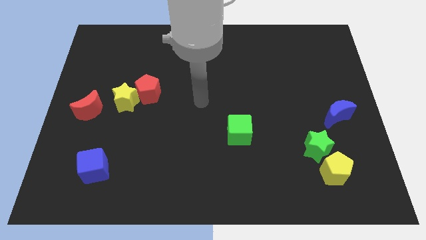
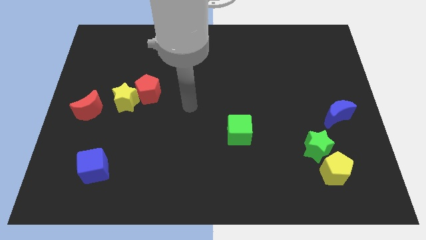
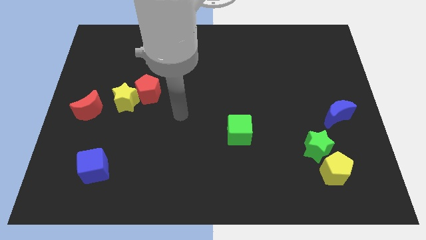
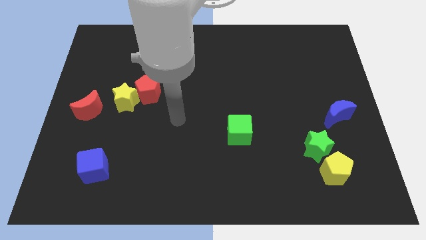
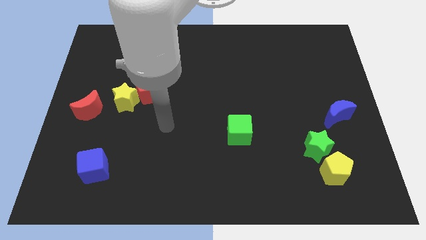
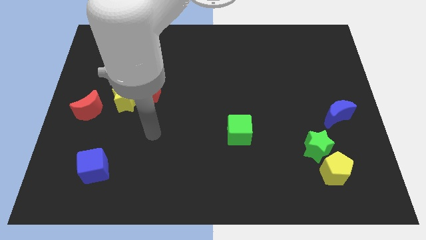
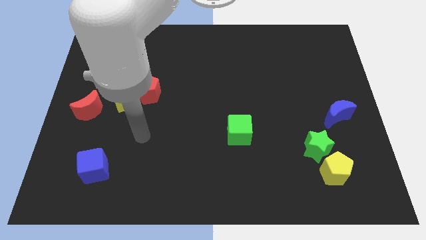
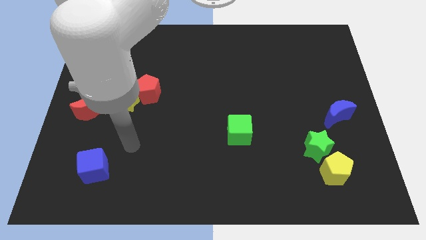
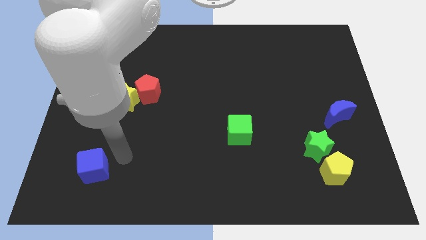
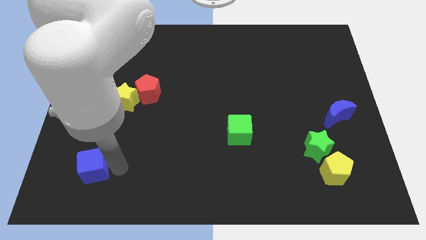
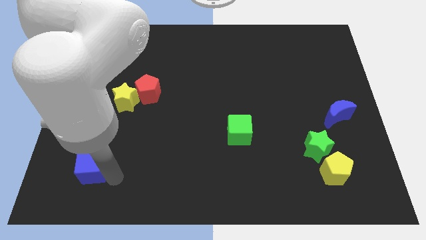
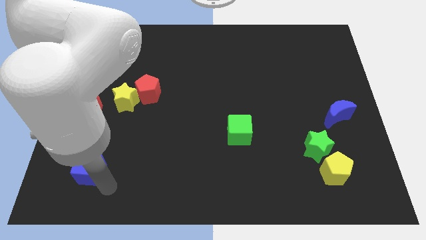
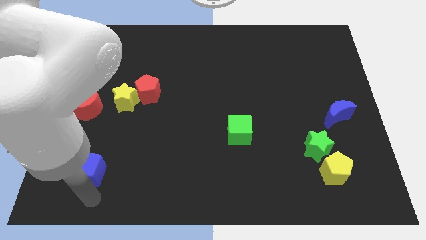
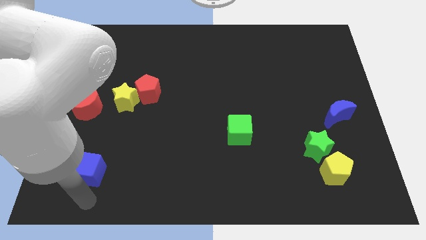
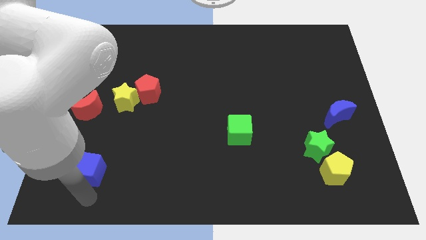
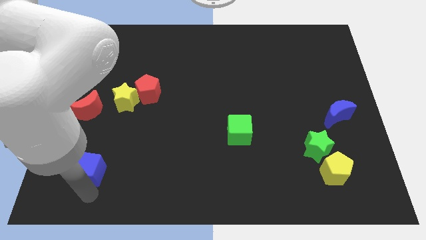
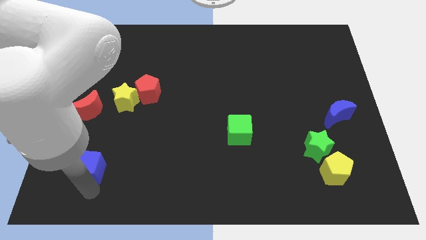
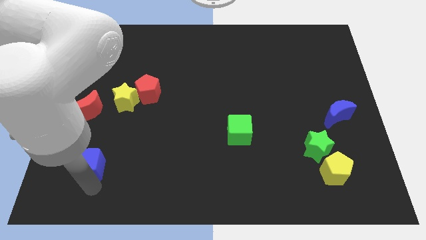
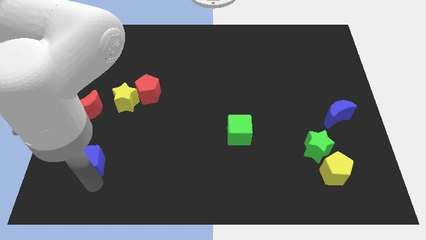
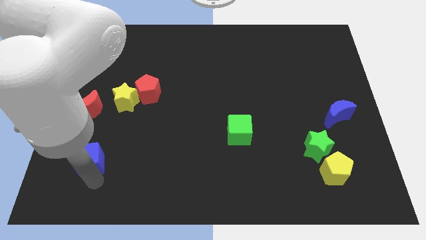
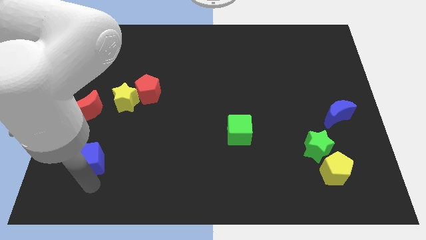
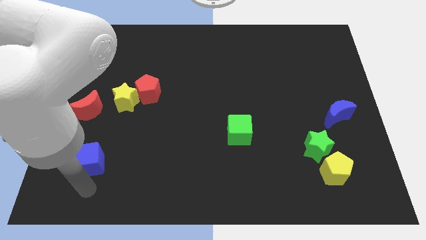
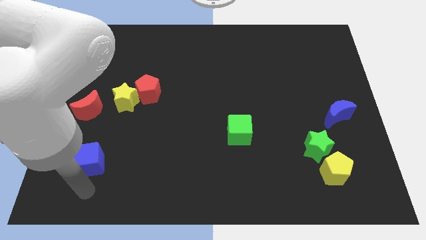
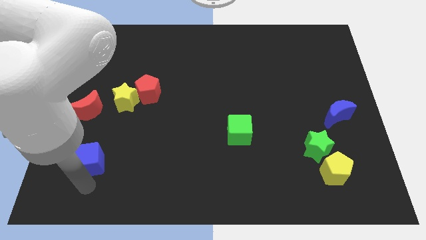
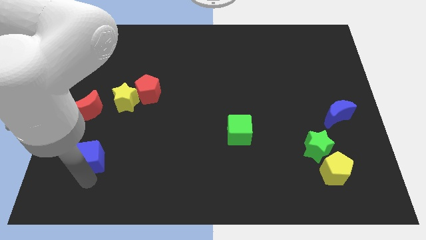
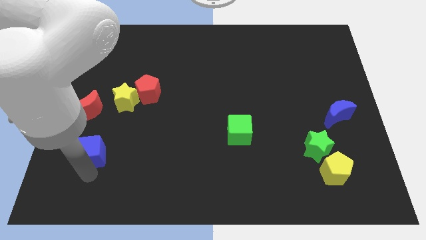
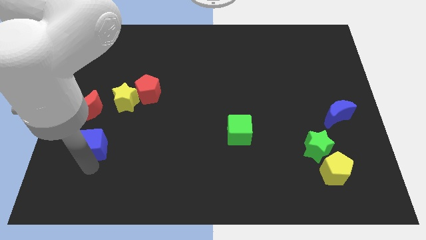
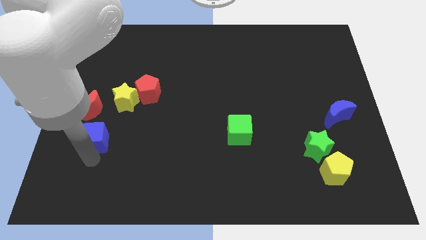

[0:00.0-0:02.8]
slightly push the blue cube up

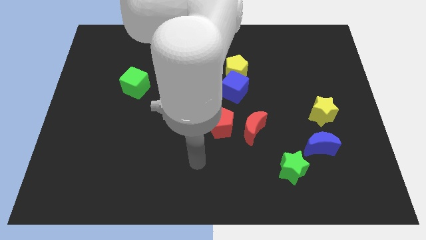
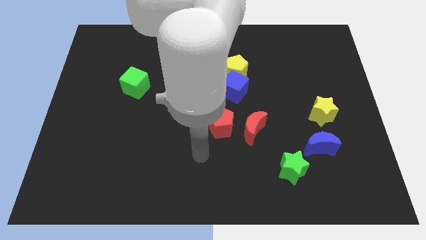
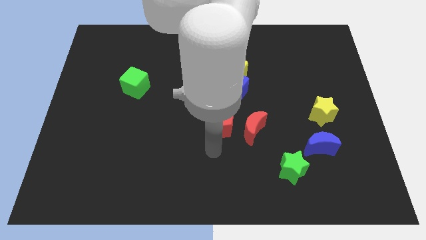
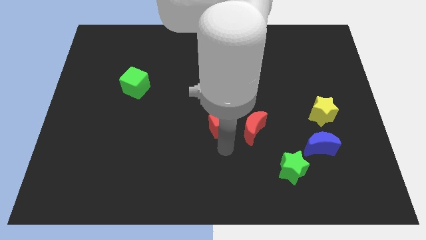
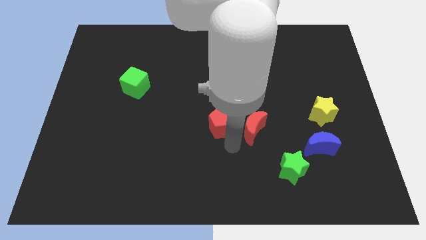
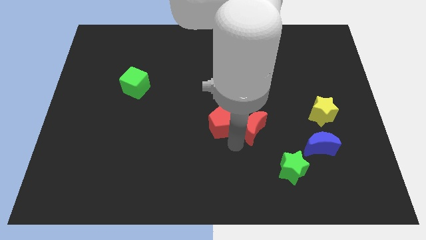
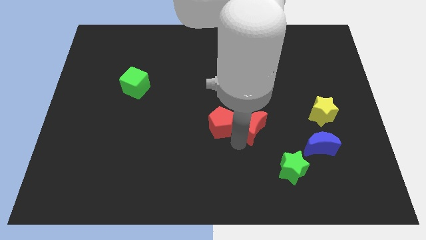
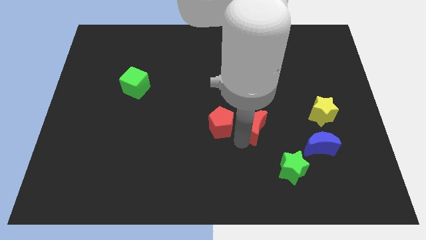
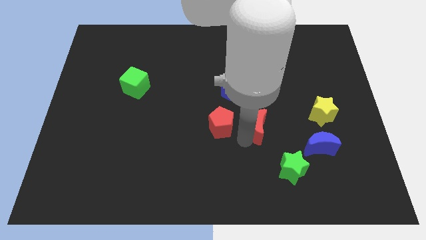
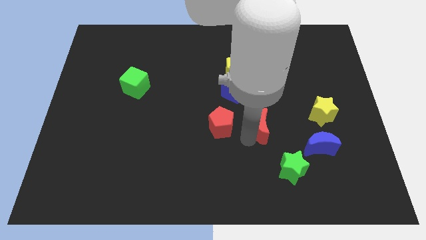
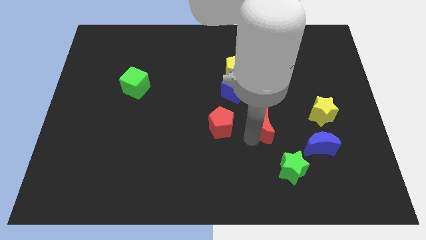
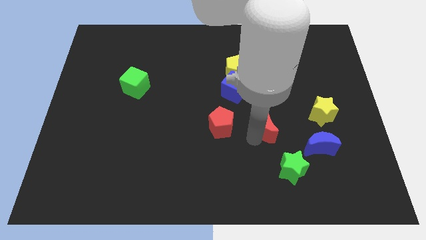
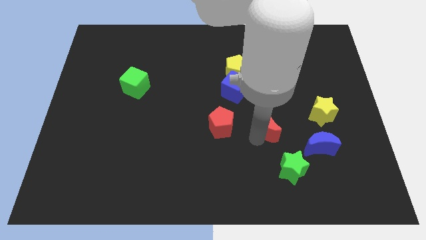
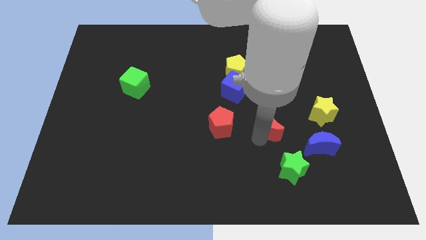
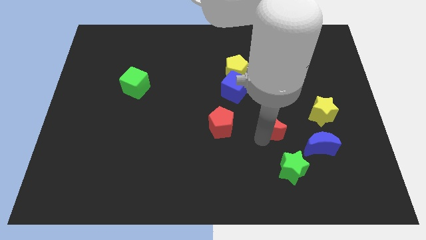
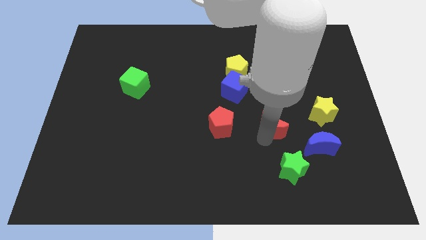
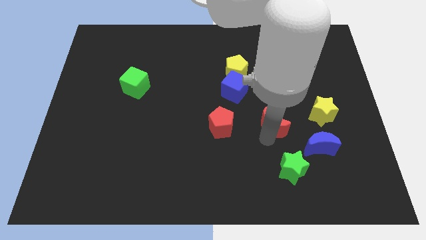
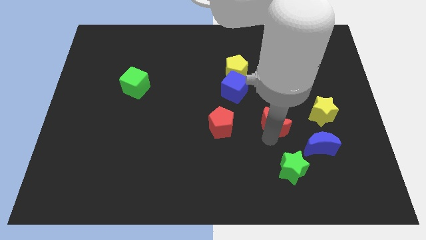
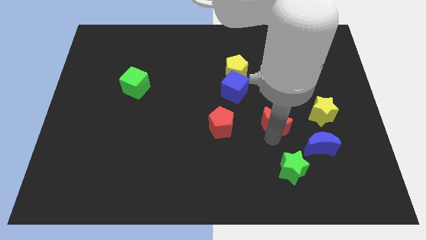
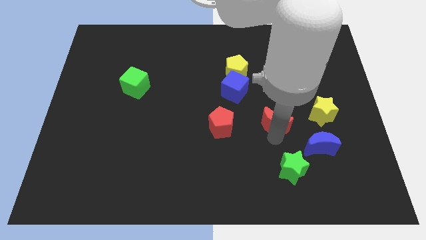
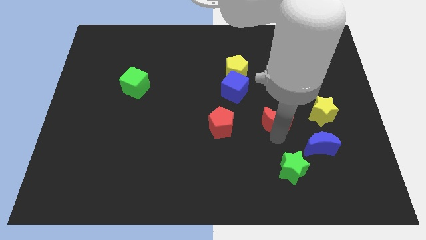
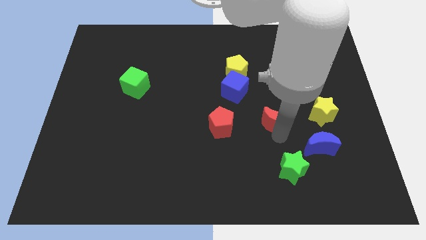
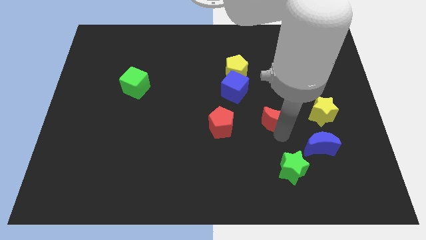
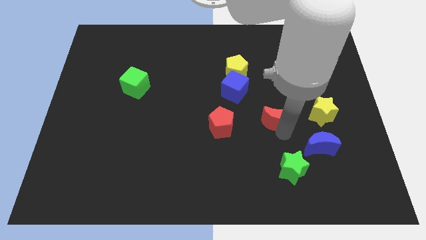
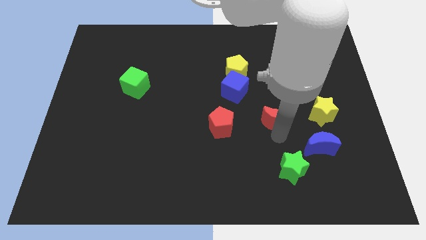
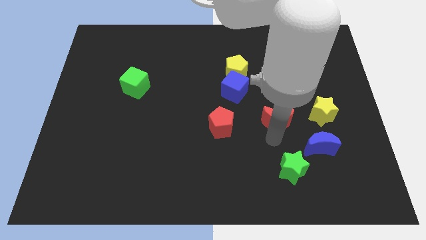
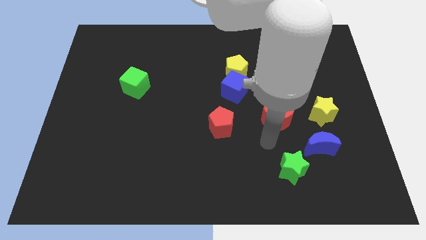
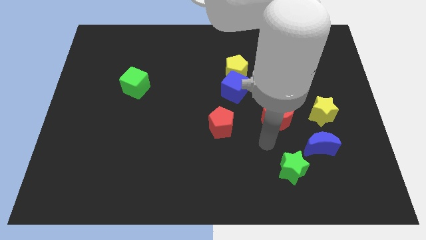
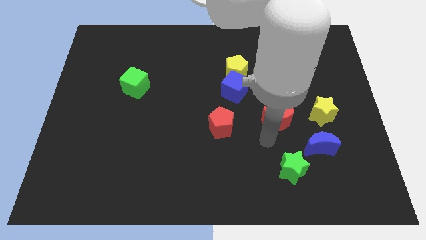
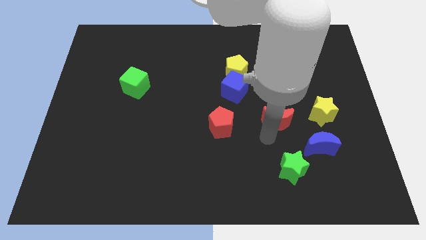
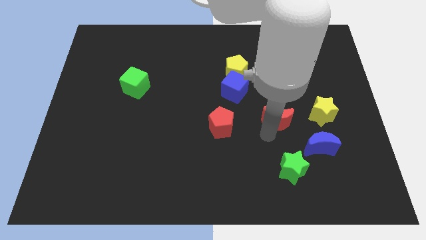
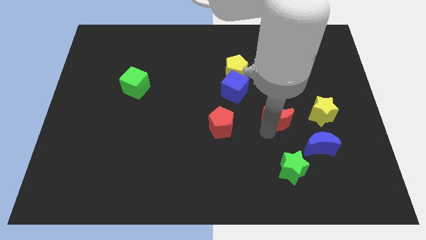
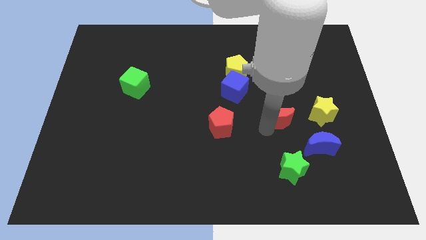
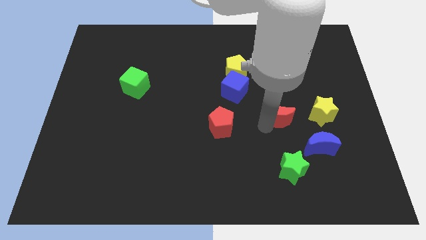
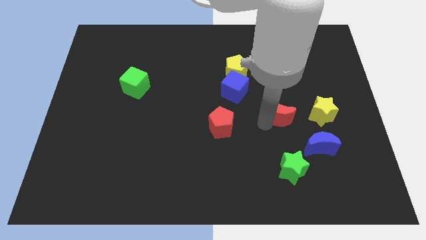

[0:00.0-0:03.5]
slide the red moon upwards and to the right diagonally somewhat

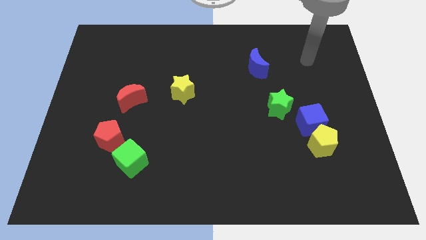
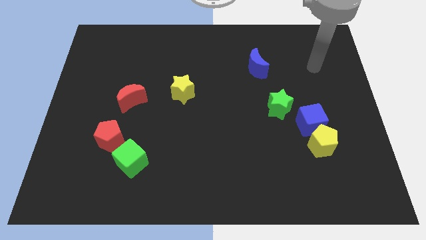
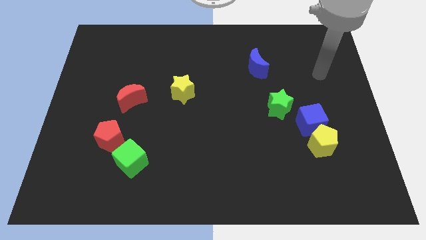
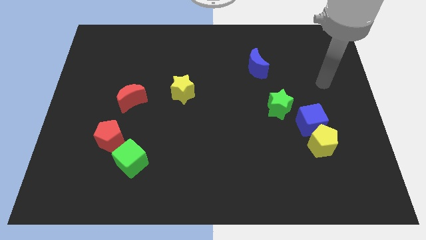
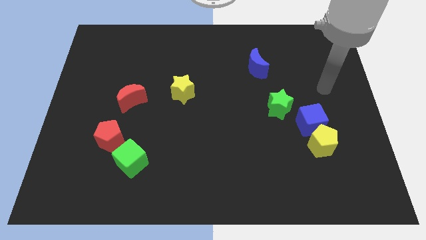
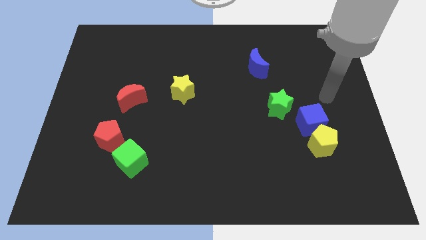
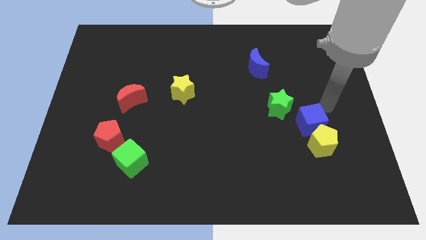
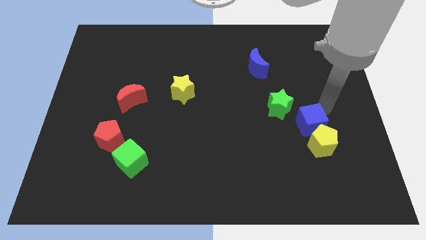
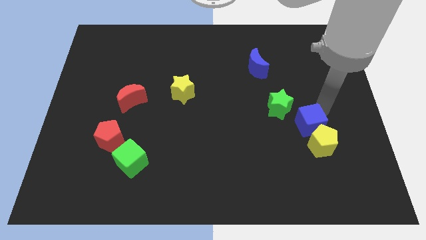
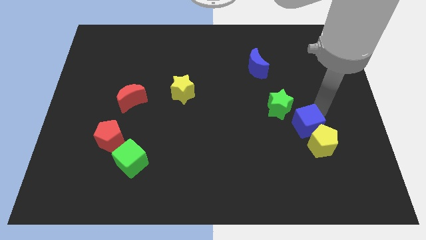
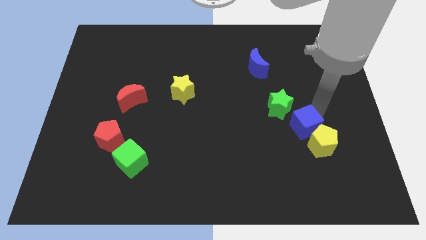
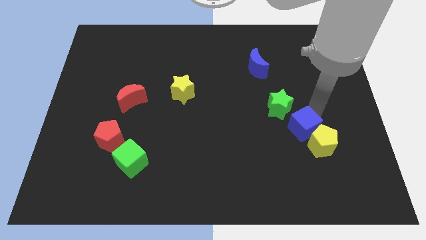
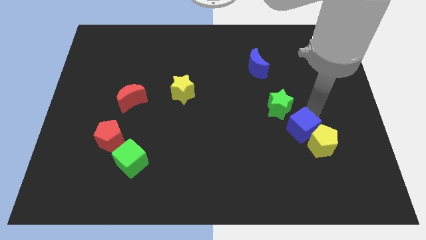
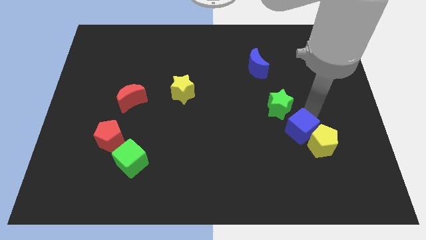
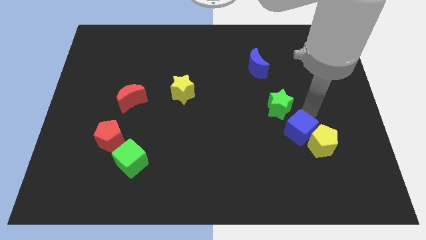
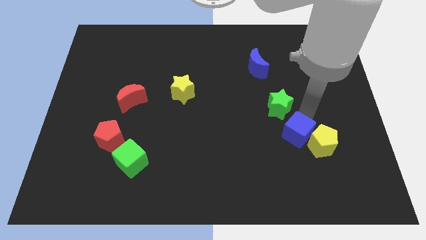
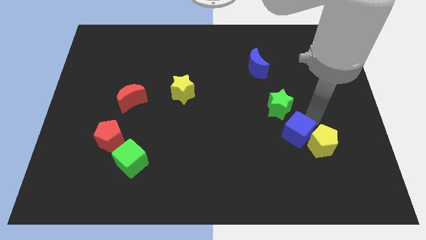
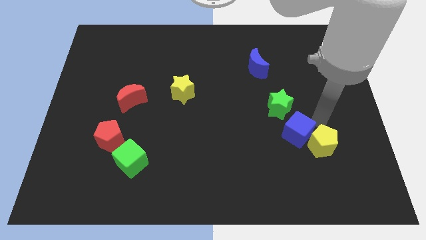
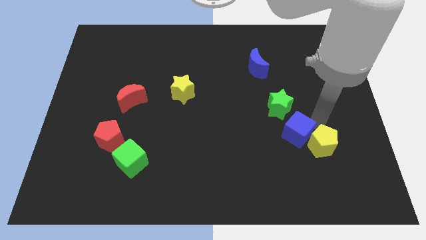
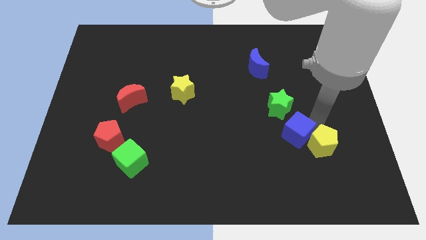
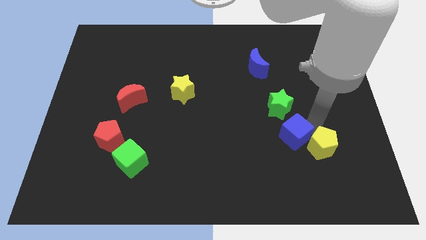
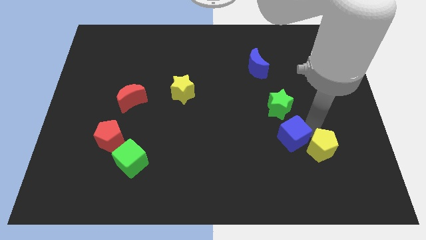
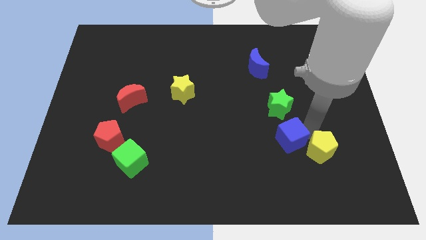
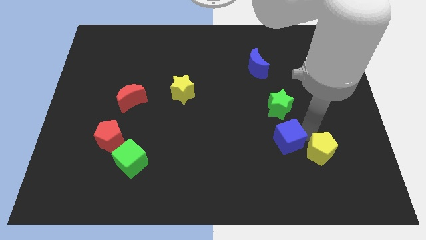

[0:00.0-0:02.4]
push the blue cube diagonally down and left a little bit
